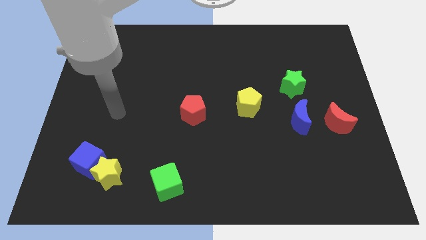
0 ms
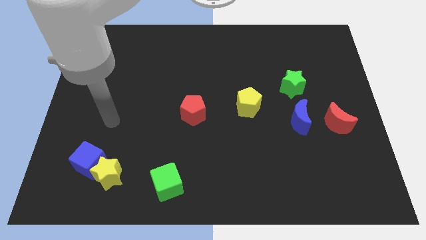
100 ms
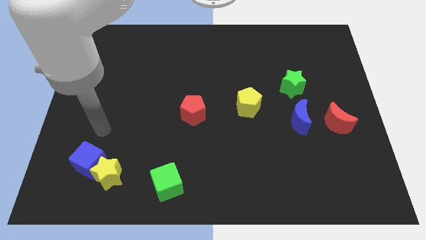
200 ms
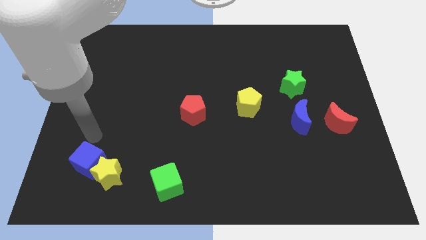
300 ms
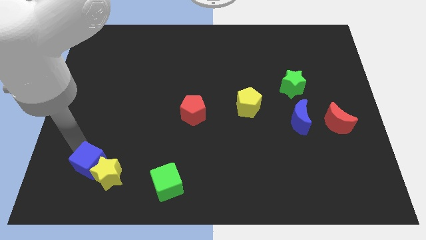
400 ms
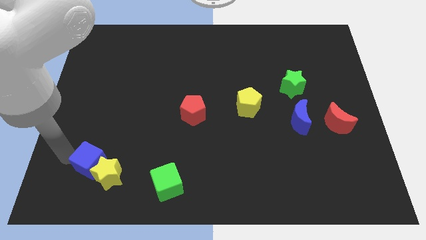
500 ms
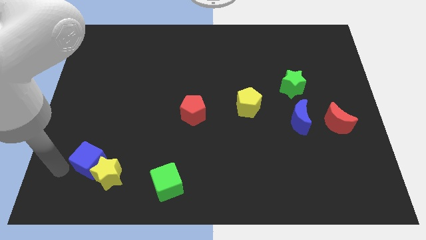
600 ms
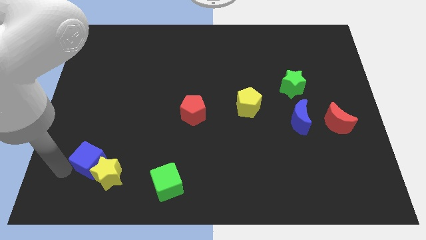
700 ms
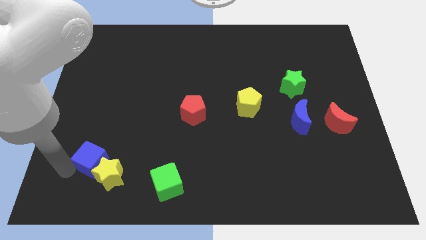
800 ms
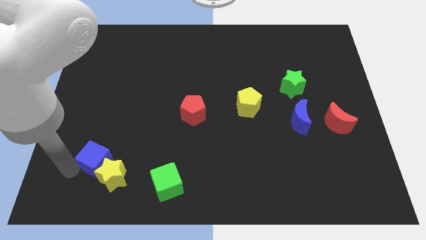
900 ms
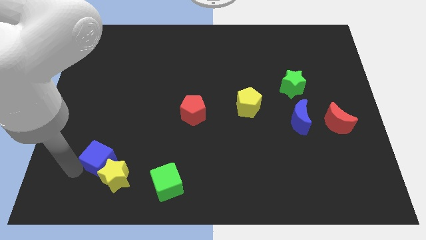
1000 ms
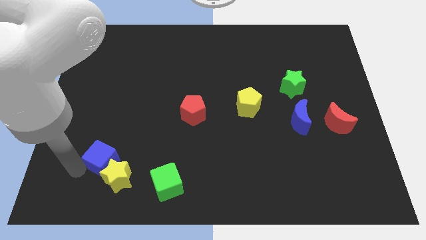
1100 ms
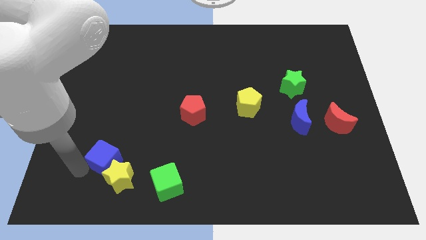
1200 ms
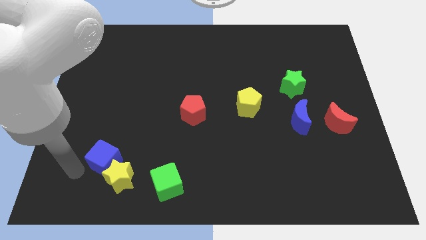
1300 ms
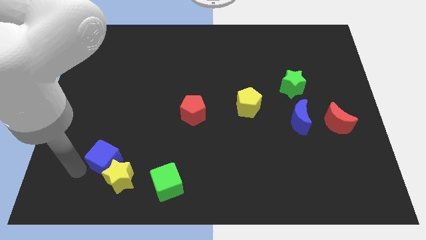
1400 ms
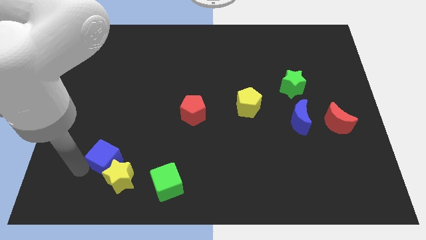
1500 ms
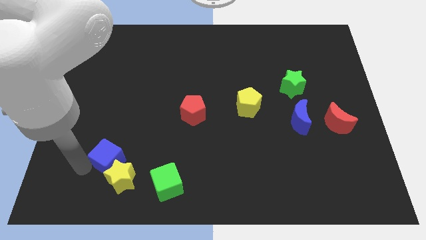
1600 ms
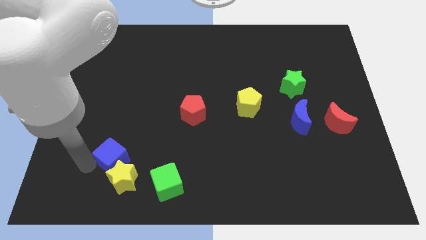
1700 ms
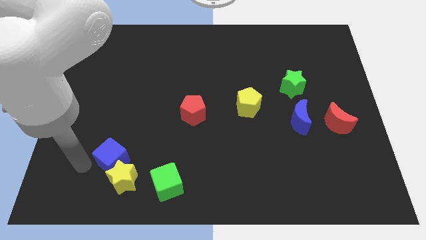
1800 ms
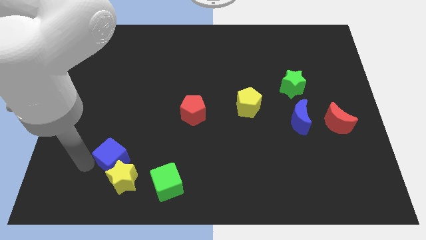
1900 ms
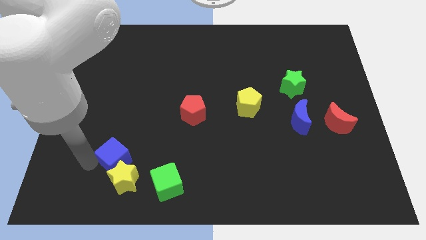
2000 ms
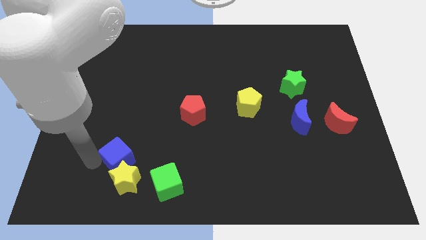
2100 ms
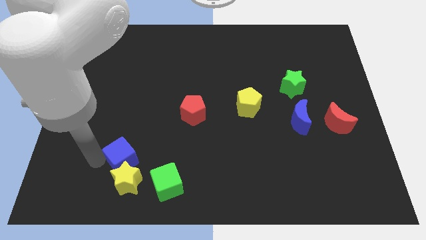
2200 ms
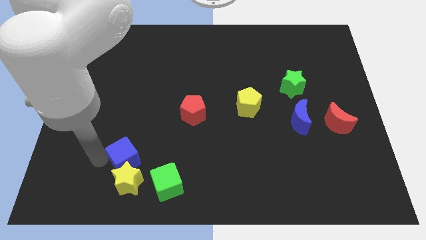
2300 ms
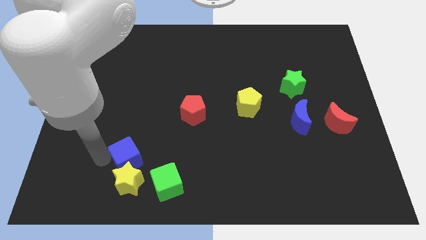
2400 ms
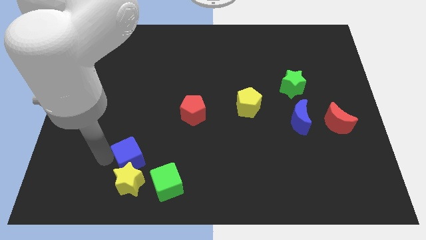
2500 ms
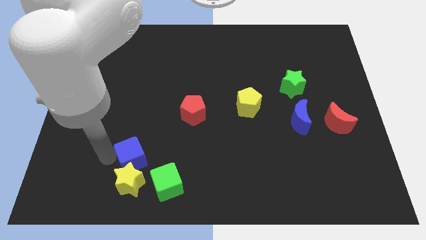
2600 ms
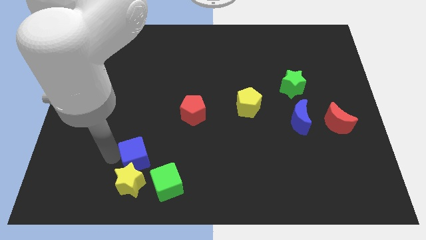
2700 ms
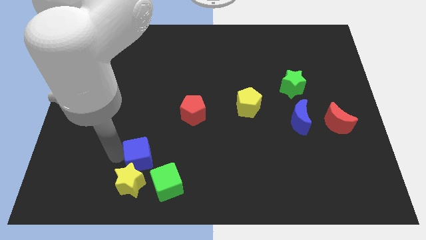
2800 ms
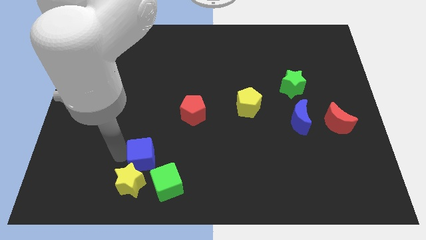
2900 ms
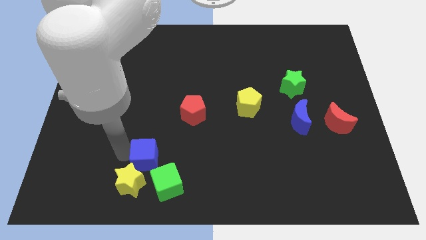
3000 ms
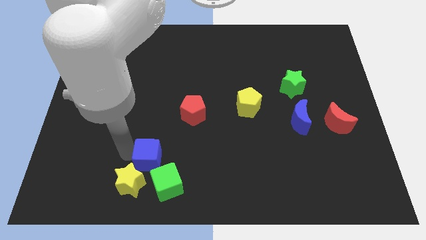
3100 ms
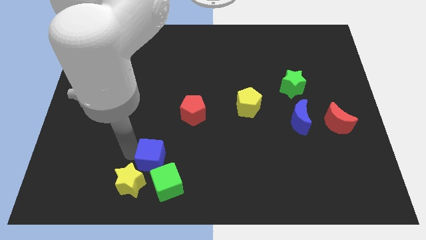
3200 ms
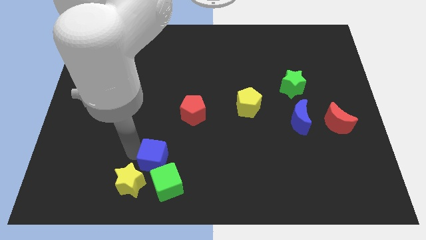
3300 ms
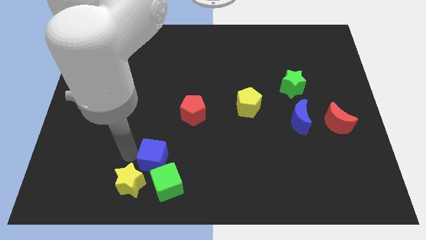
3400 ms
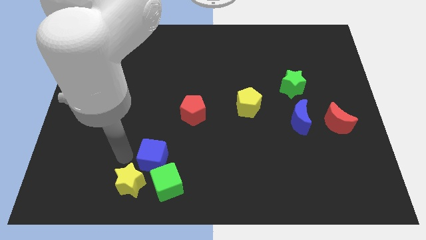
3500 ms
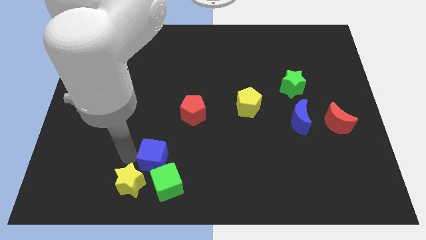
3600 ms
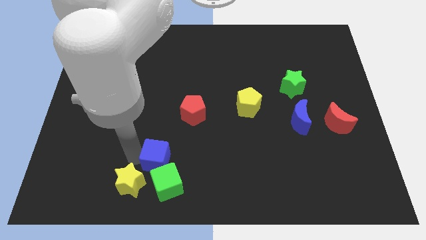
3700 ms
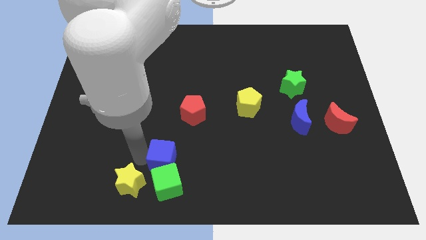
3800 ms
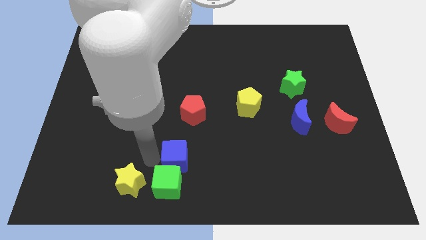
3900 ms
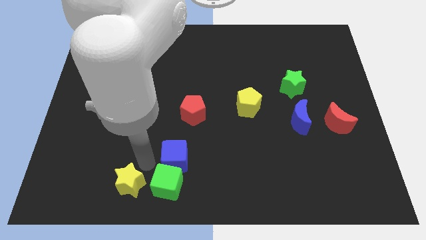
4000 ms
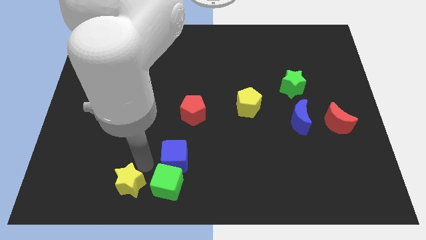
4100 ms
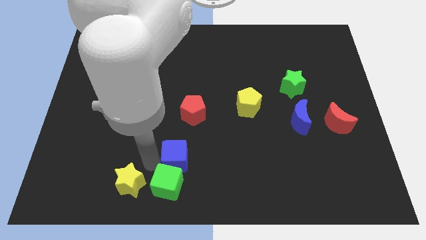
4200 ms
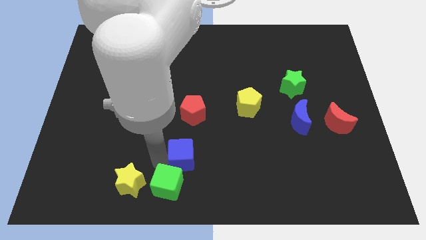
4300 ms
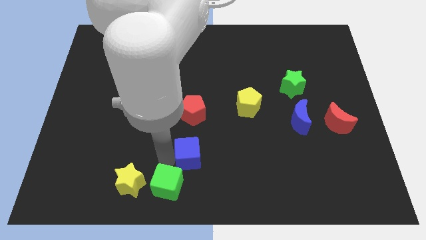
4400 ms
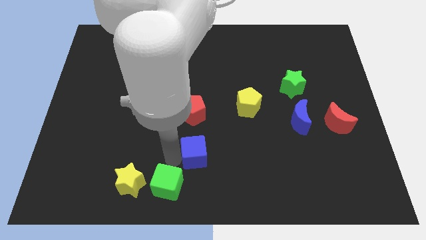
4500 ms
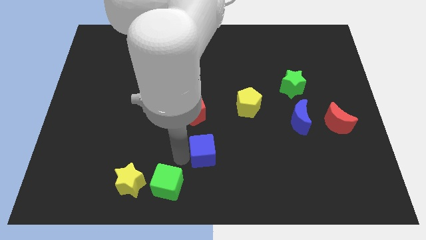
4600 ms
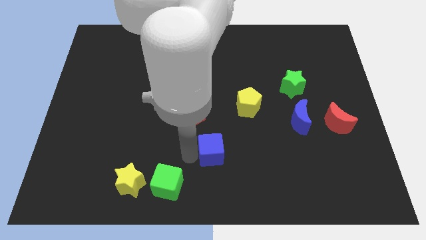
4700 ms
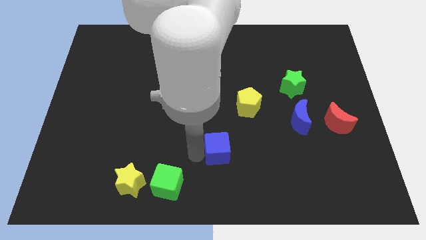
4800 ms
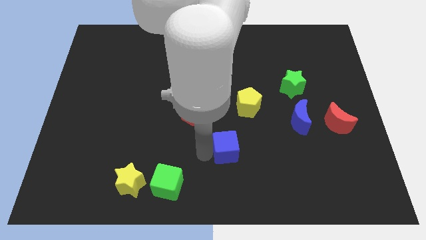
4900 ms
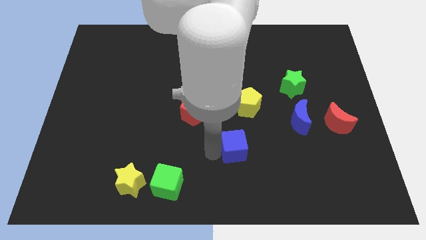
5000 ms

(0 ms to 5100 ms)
put the blue cube to the bottom of the yellow pentagon

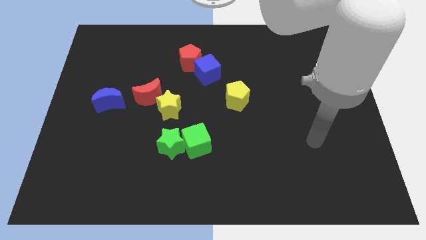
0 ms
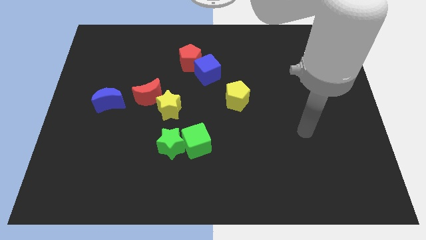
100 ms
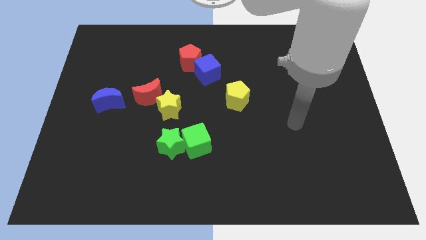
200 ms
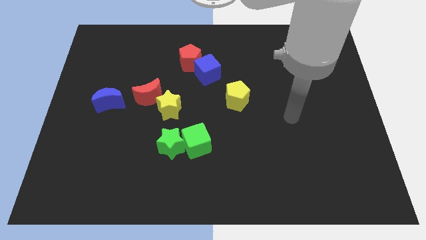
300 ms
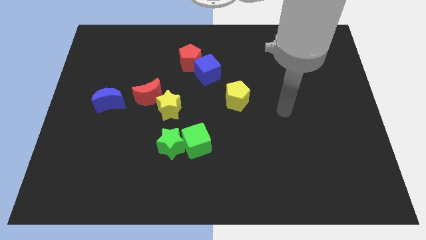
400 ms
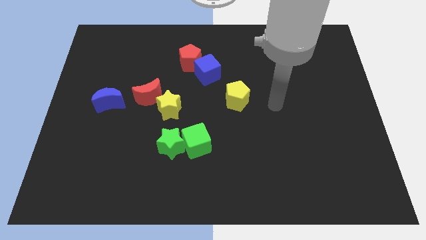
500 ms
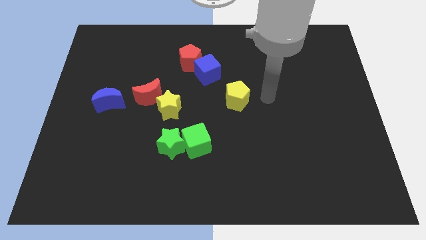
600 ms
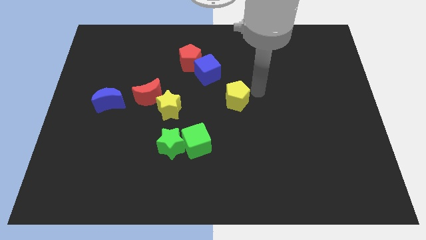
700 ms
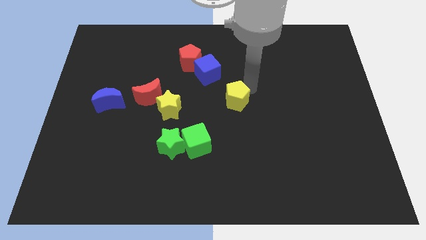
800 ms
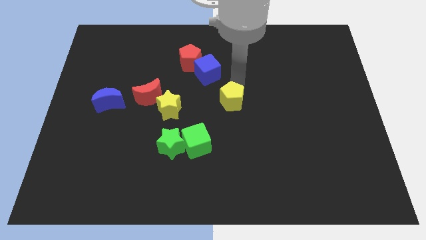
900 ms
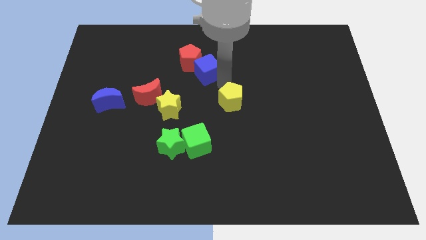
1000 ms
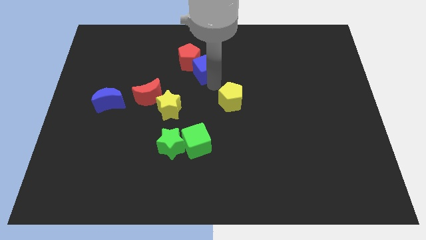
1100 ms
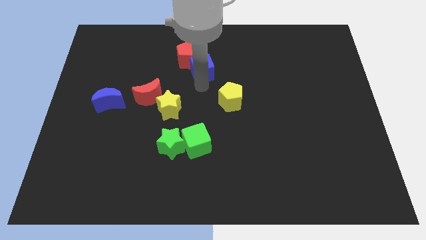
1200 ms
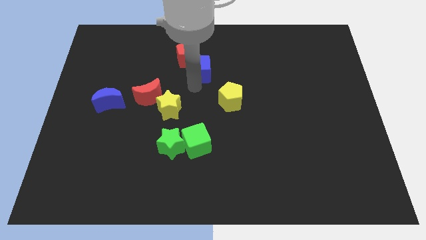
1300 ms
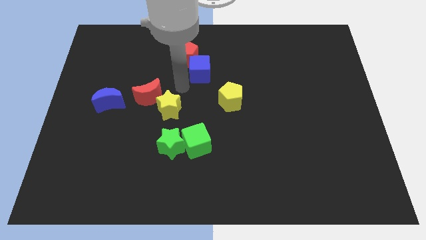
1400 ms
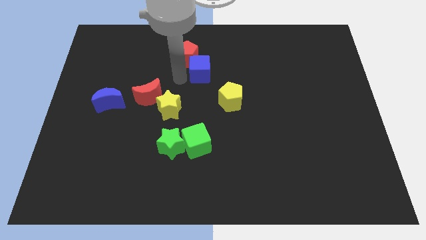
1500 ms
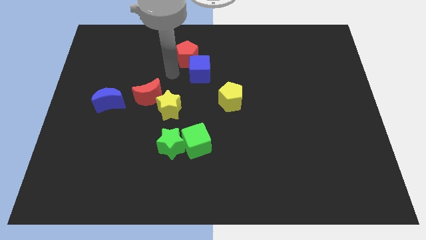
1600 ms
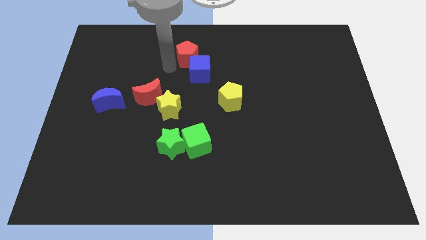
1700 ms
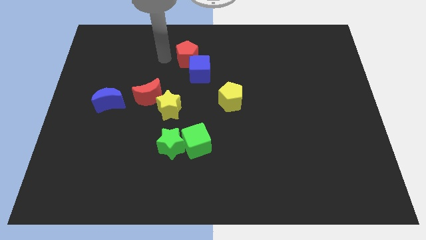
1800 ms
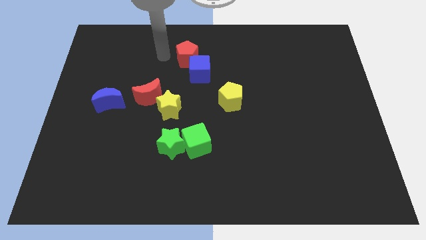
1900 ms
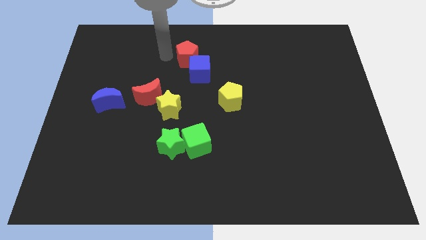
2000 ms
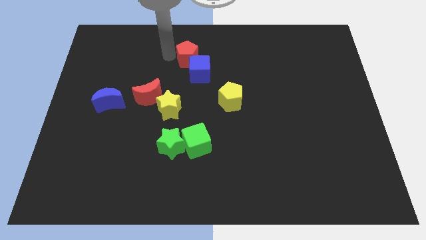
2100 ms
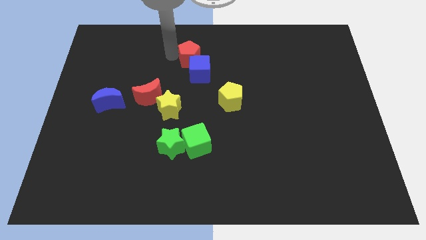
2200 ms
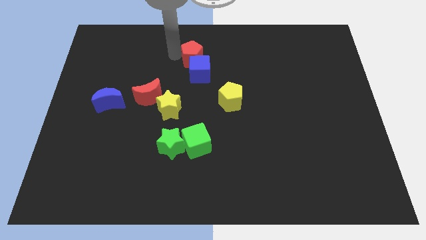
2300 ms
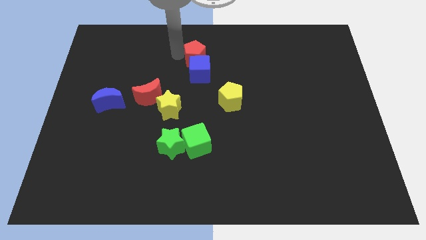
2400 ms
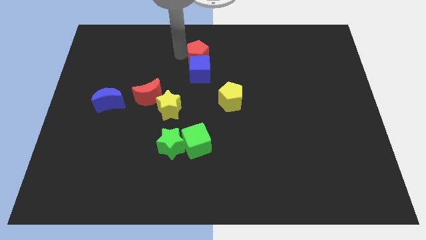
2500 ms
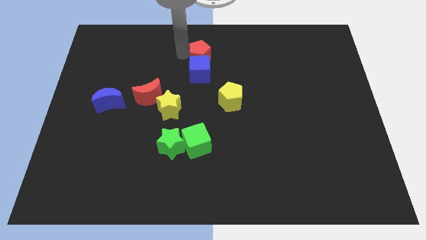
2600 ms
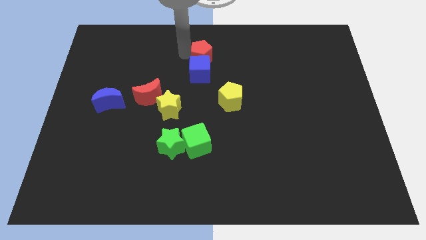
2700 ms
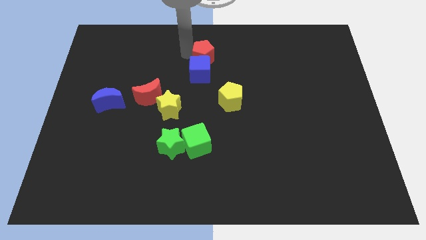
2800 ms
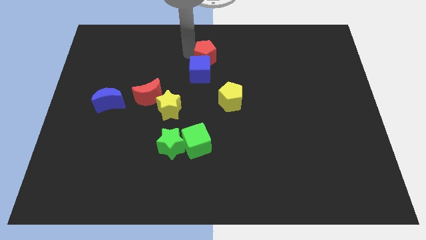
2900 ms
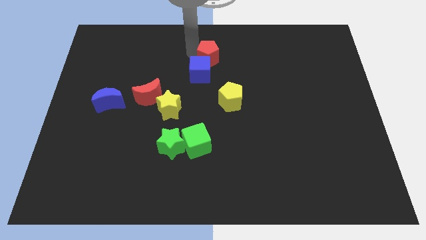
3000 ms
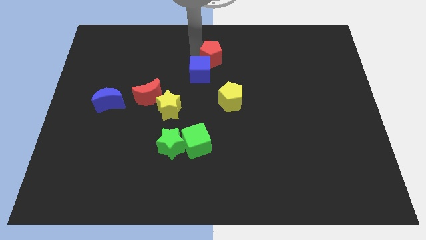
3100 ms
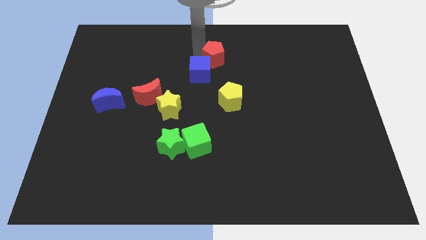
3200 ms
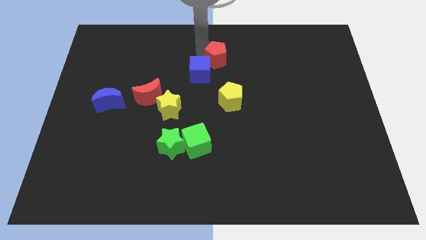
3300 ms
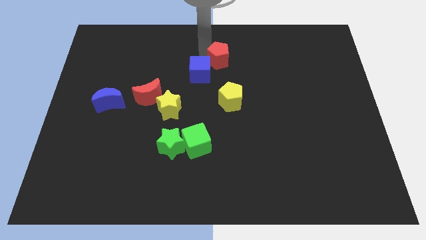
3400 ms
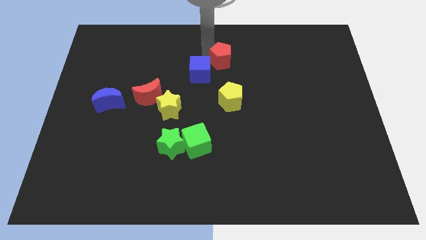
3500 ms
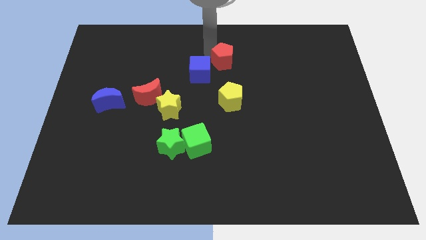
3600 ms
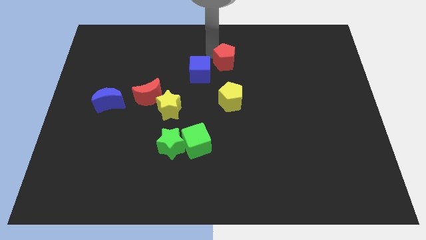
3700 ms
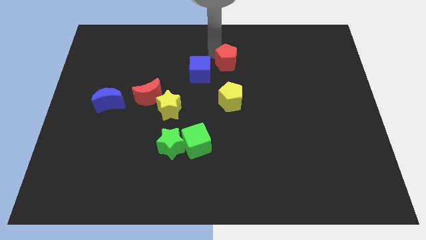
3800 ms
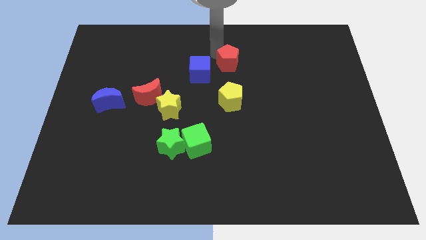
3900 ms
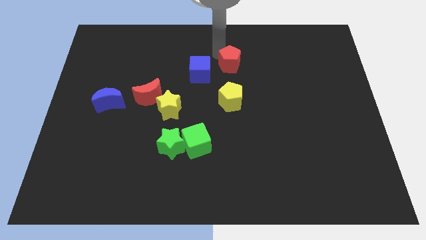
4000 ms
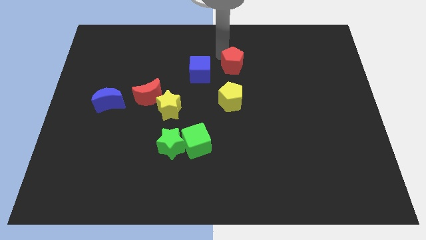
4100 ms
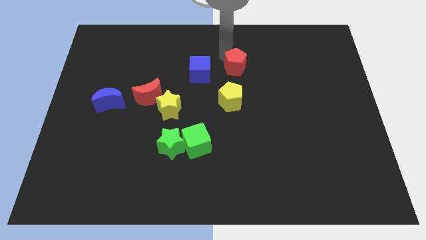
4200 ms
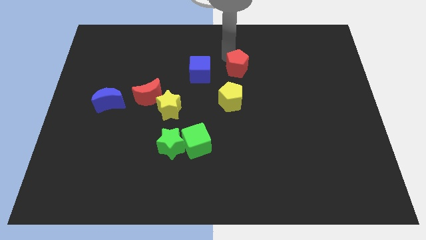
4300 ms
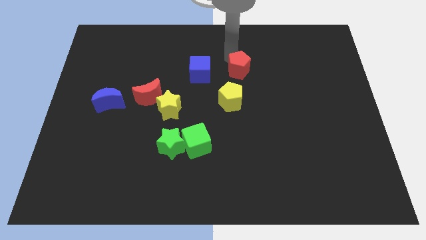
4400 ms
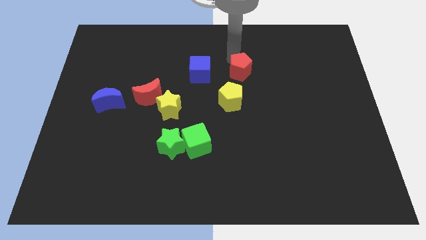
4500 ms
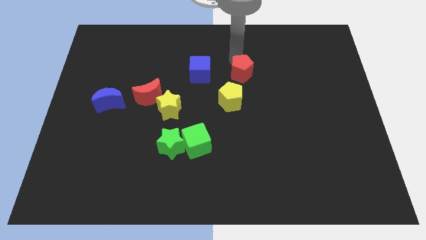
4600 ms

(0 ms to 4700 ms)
move the red pentagon to the top right side of the yellow pentagon
